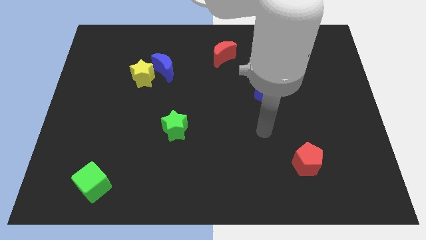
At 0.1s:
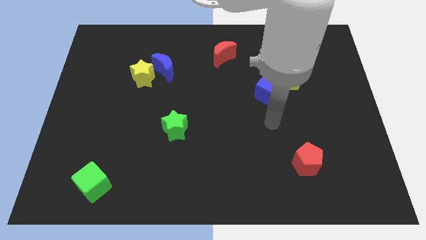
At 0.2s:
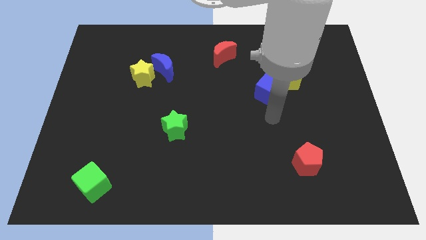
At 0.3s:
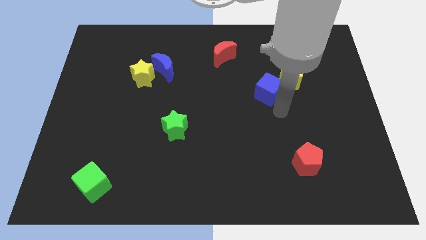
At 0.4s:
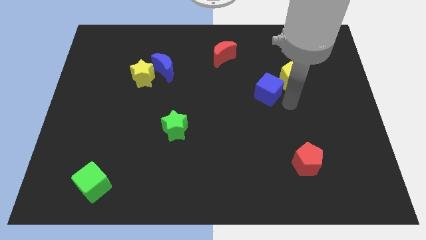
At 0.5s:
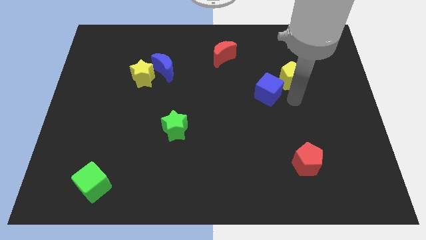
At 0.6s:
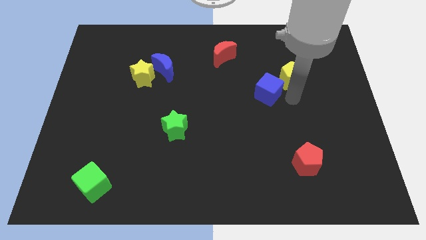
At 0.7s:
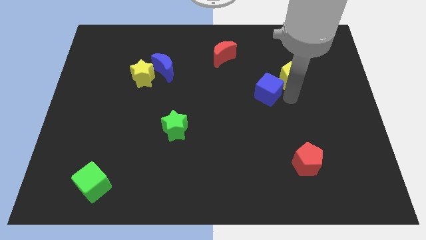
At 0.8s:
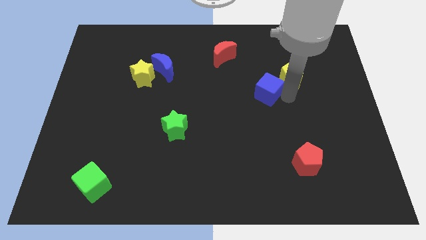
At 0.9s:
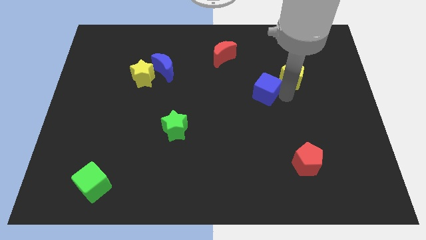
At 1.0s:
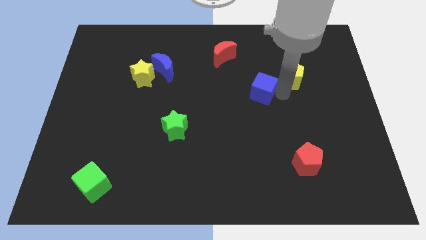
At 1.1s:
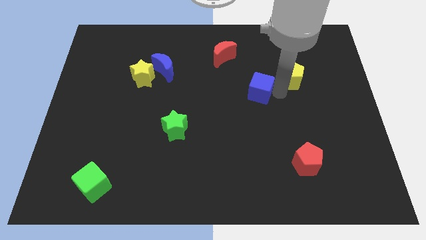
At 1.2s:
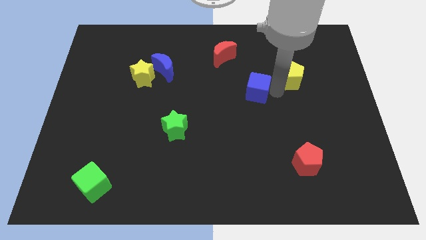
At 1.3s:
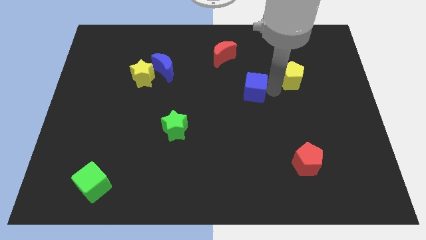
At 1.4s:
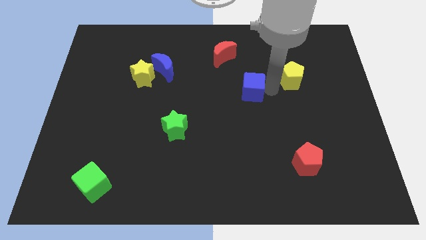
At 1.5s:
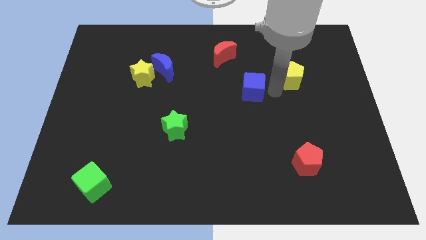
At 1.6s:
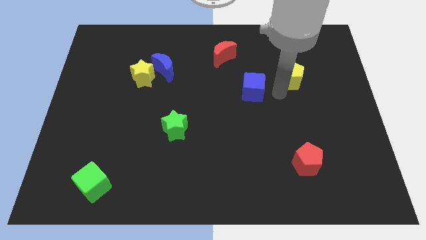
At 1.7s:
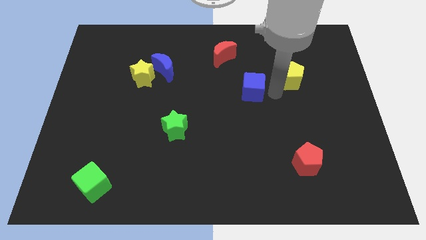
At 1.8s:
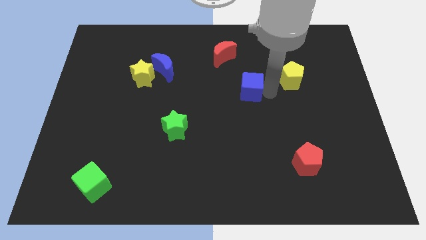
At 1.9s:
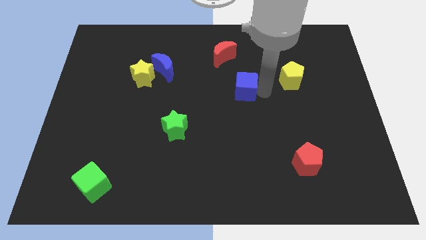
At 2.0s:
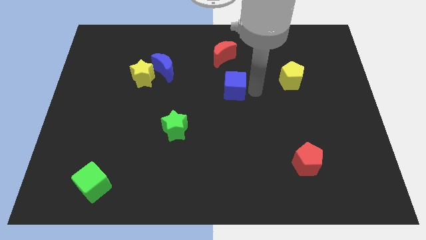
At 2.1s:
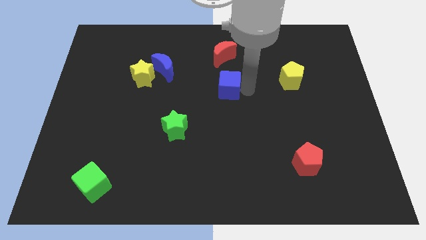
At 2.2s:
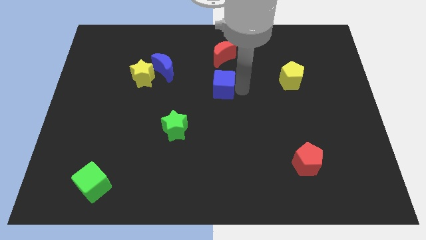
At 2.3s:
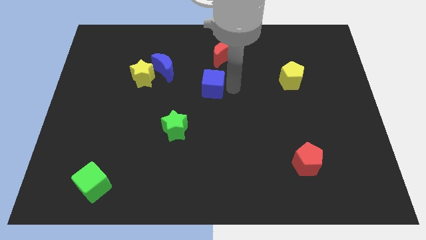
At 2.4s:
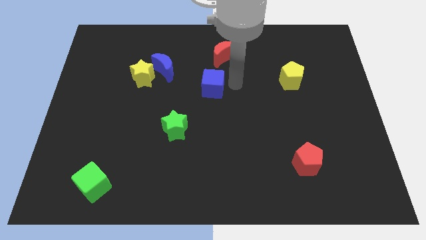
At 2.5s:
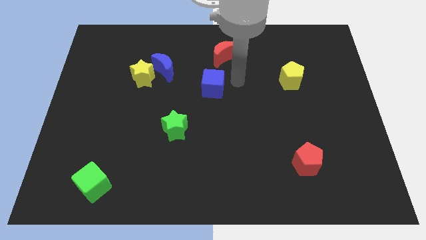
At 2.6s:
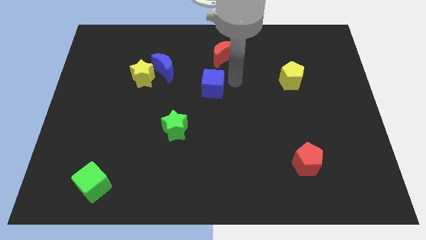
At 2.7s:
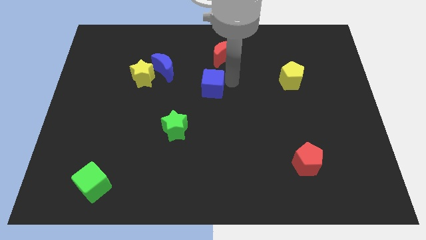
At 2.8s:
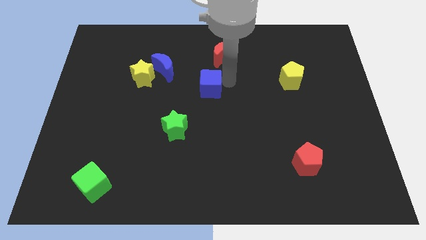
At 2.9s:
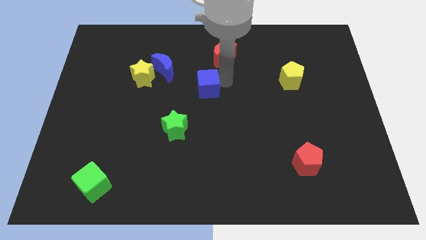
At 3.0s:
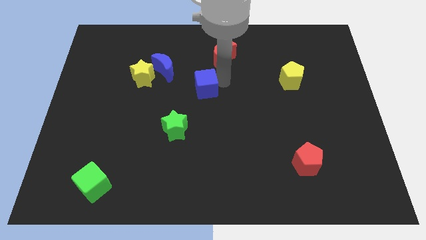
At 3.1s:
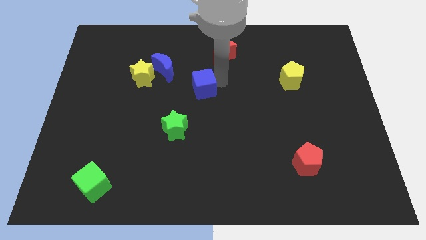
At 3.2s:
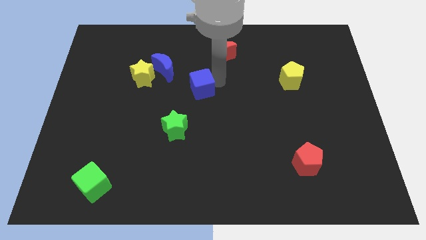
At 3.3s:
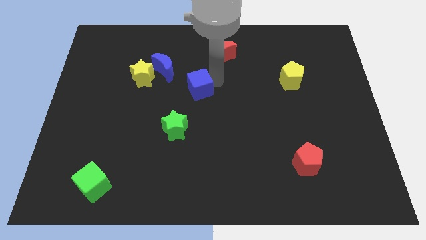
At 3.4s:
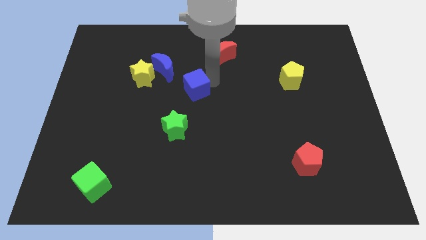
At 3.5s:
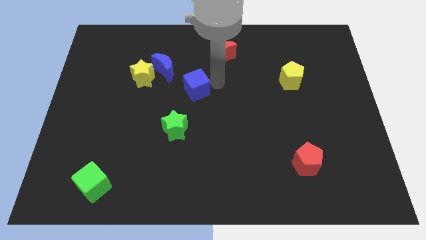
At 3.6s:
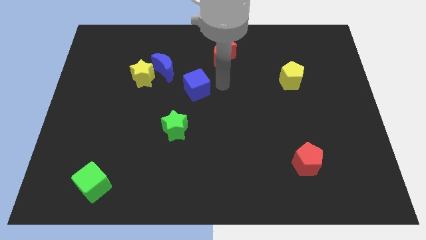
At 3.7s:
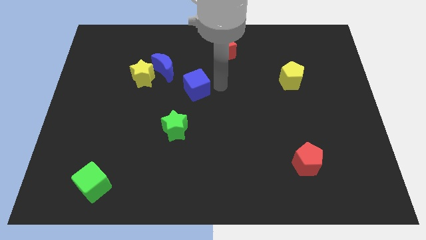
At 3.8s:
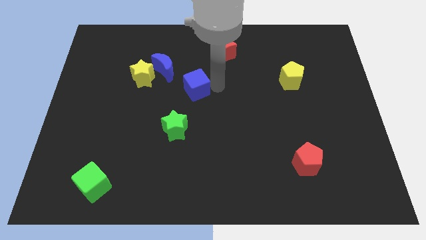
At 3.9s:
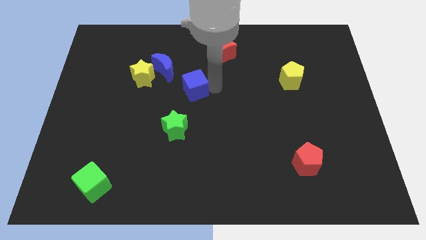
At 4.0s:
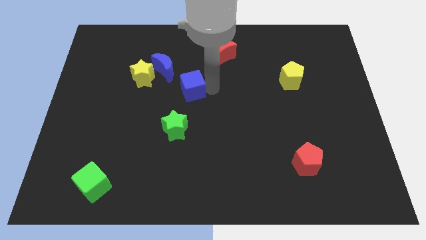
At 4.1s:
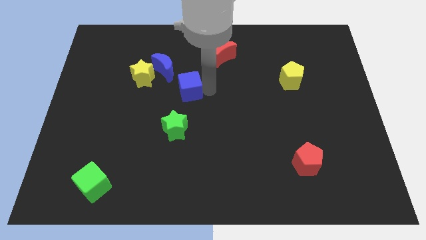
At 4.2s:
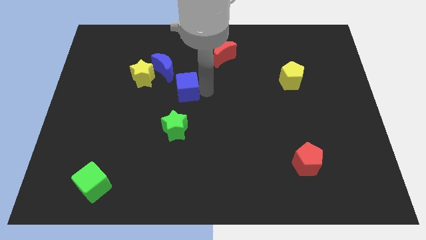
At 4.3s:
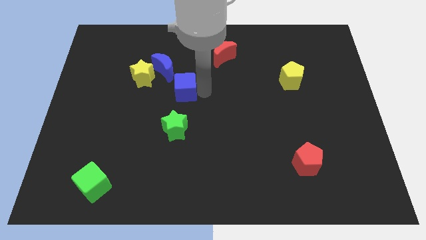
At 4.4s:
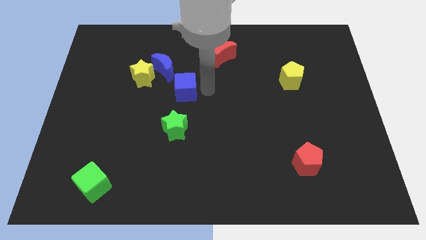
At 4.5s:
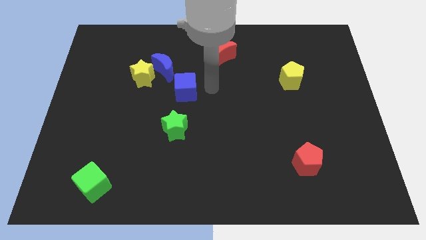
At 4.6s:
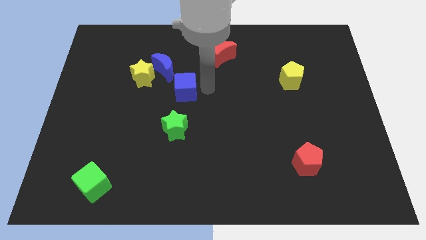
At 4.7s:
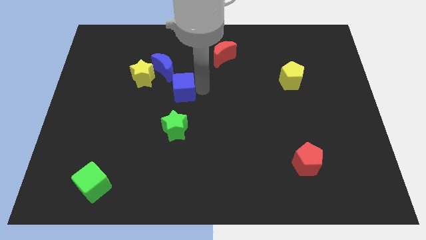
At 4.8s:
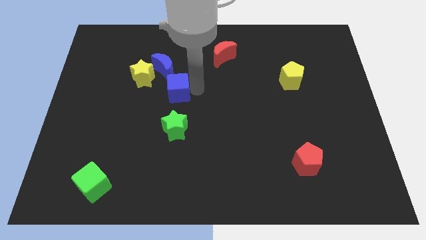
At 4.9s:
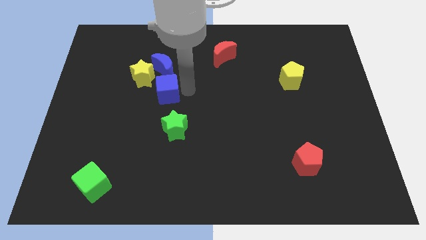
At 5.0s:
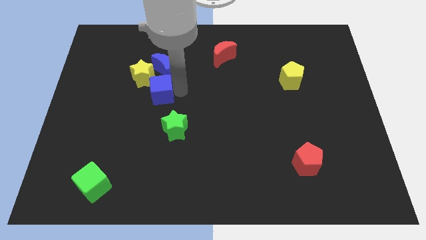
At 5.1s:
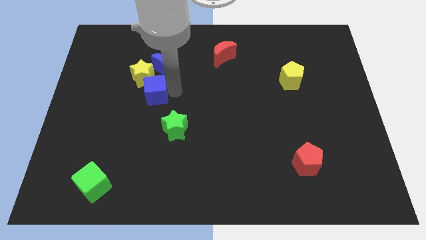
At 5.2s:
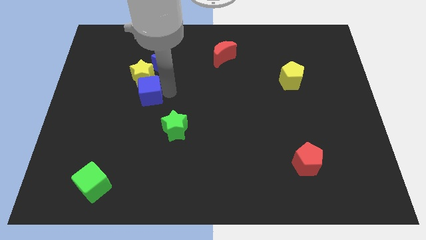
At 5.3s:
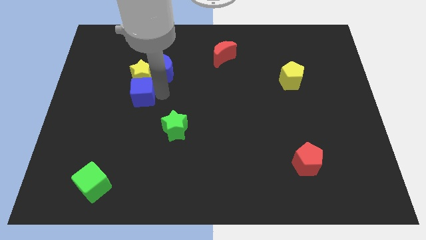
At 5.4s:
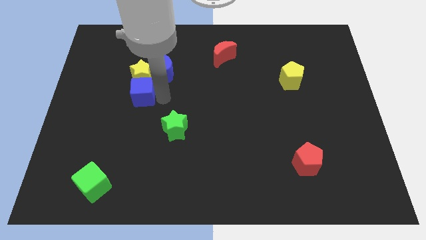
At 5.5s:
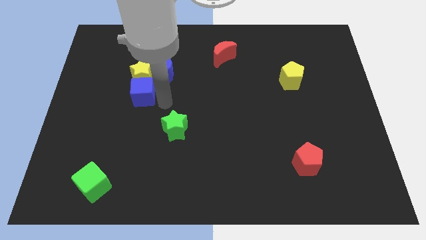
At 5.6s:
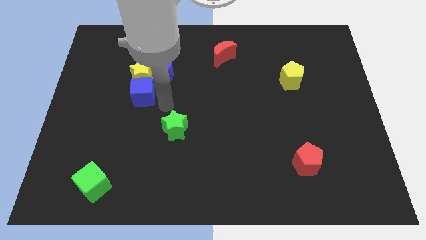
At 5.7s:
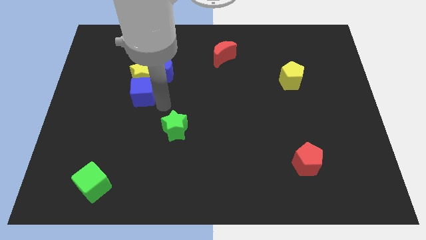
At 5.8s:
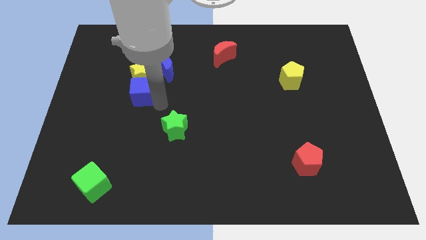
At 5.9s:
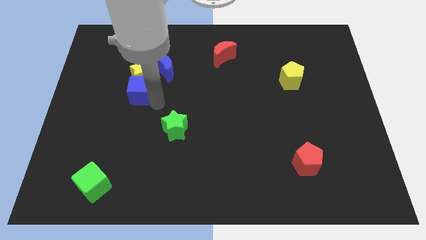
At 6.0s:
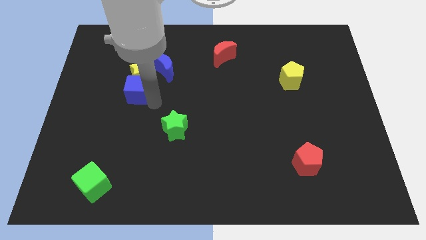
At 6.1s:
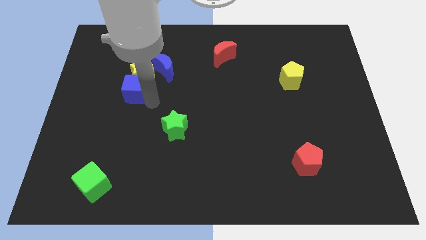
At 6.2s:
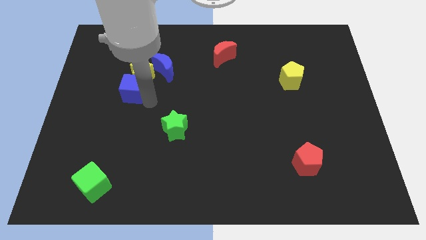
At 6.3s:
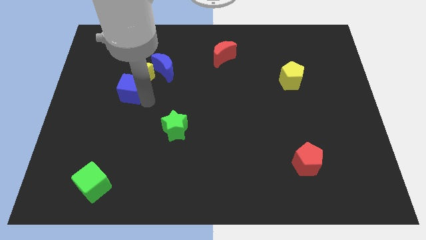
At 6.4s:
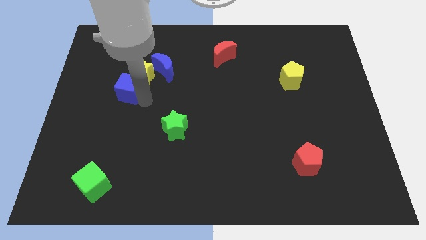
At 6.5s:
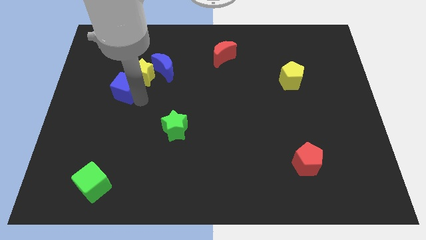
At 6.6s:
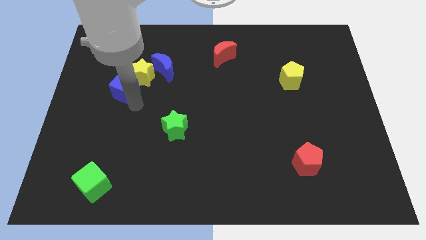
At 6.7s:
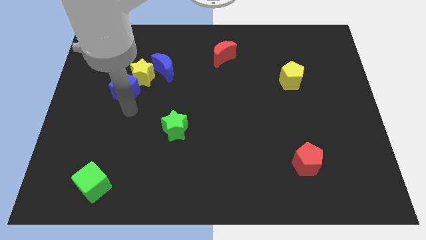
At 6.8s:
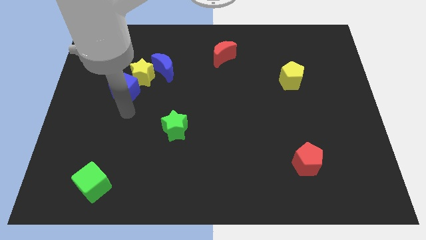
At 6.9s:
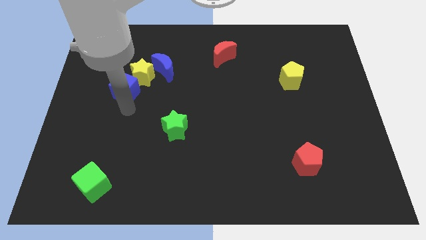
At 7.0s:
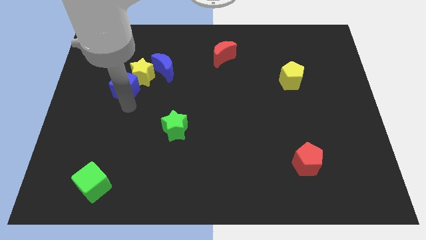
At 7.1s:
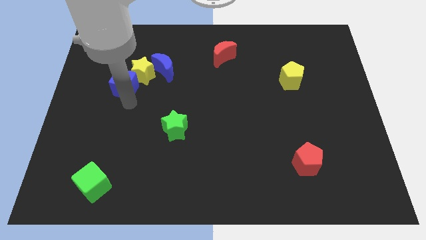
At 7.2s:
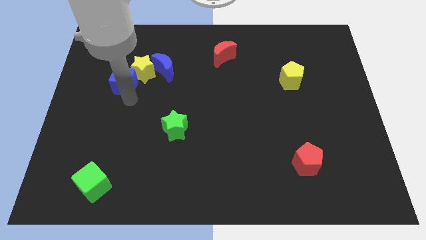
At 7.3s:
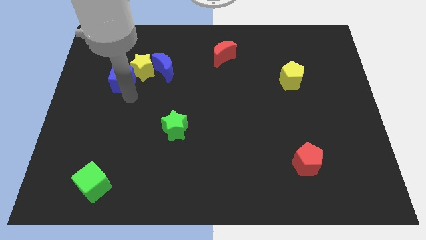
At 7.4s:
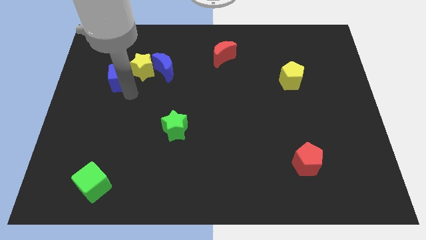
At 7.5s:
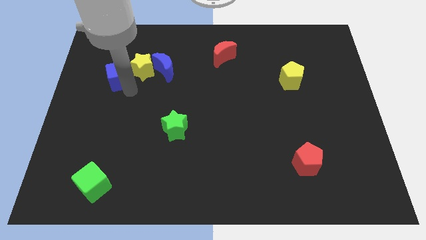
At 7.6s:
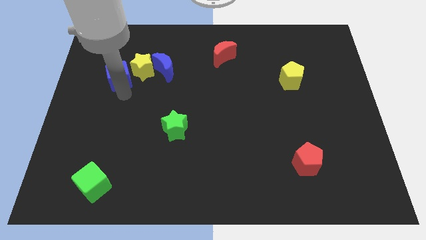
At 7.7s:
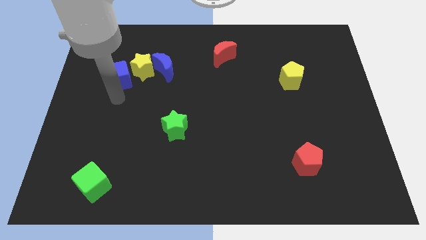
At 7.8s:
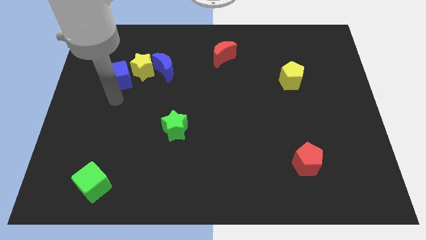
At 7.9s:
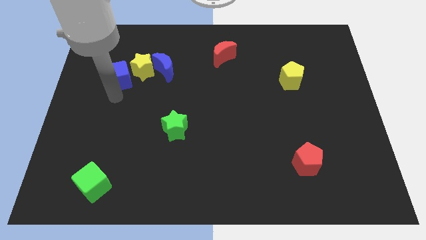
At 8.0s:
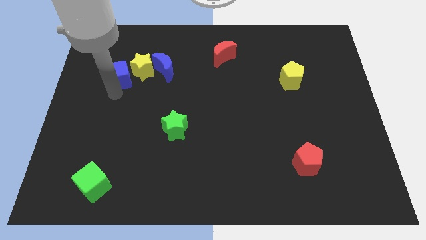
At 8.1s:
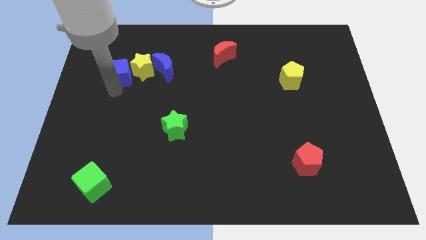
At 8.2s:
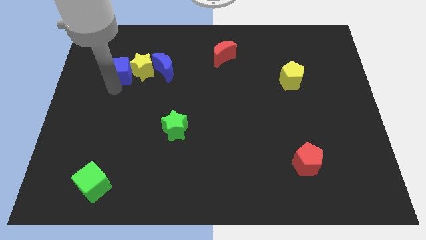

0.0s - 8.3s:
push the blue cube to the top left side of the yellow star
